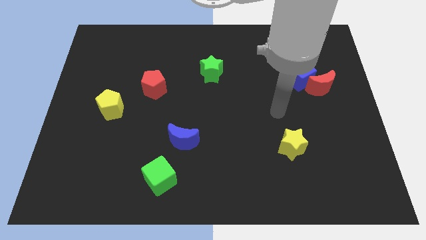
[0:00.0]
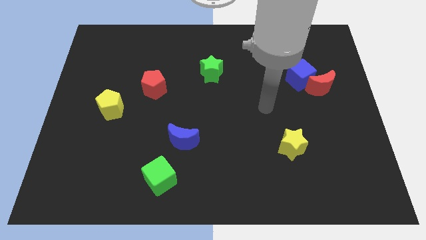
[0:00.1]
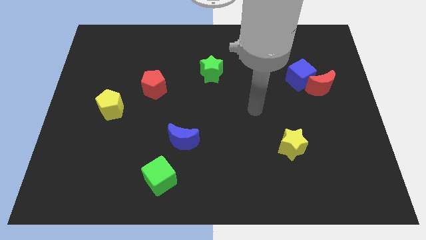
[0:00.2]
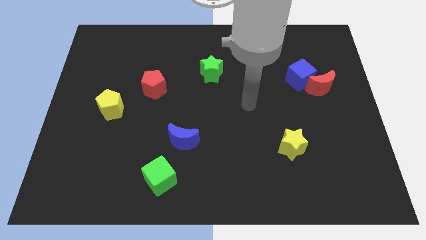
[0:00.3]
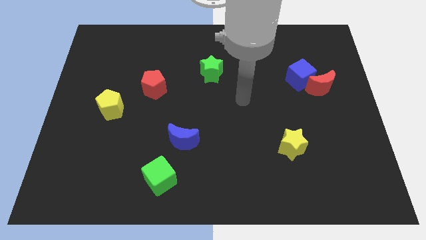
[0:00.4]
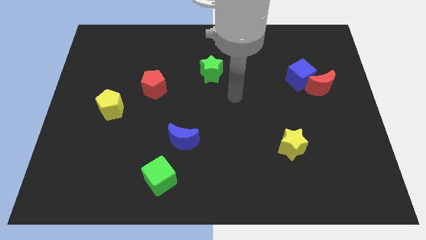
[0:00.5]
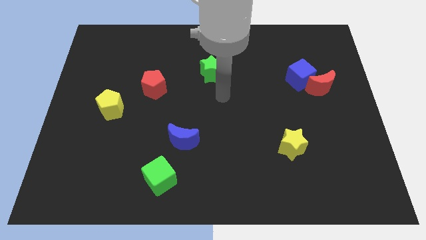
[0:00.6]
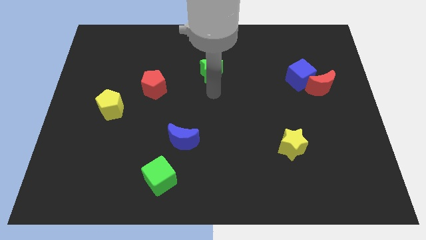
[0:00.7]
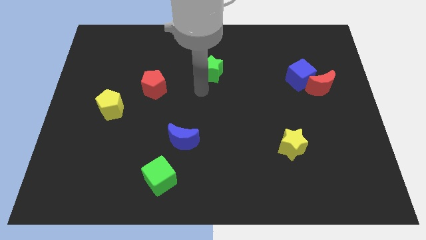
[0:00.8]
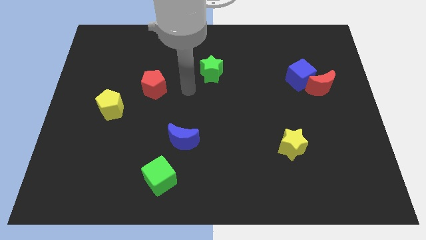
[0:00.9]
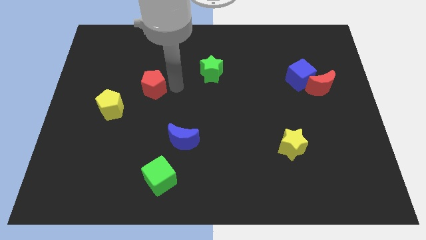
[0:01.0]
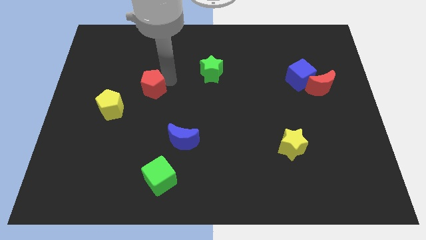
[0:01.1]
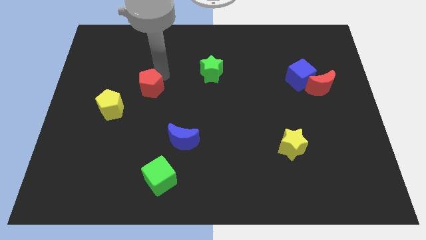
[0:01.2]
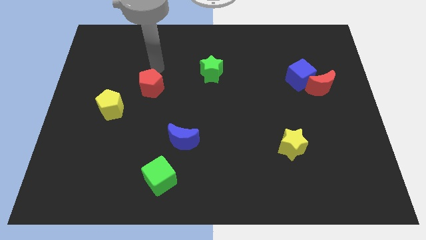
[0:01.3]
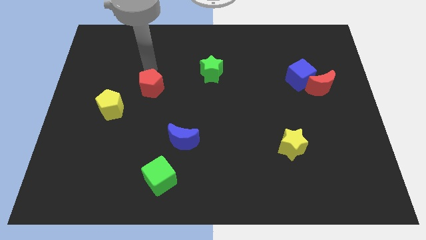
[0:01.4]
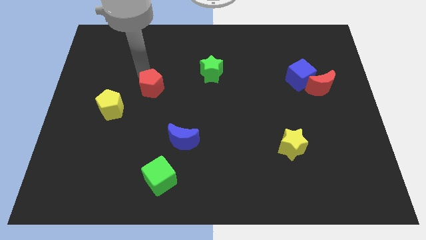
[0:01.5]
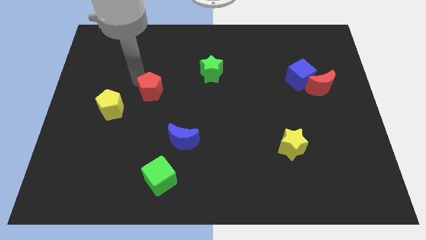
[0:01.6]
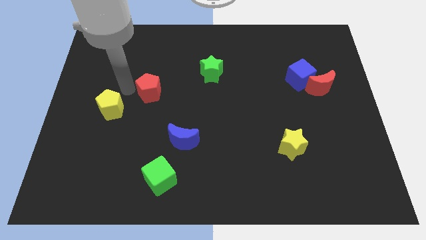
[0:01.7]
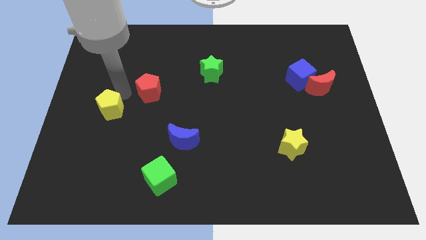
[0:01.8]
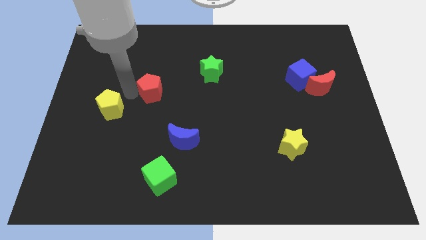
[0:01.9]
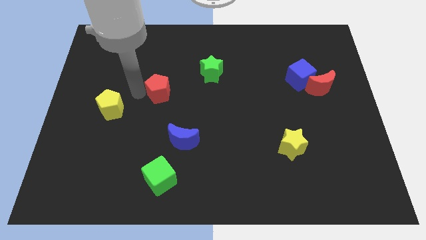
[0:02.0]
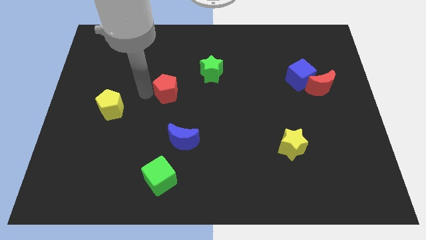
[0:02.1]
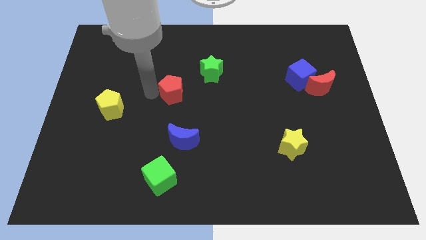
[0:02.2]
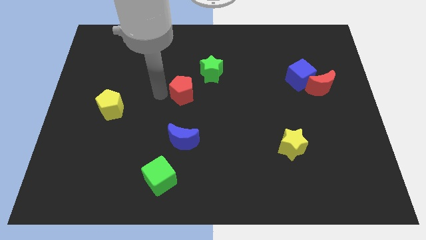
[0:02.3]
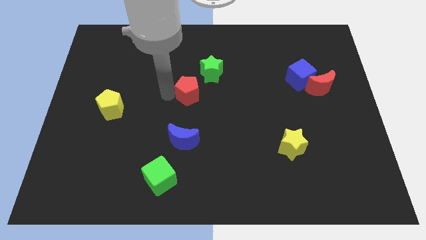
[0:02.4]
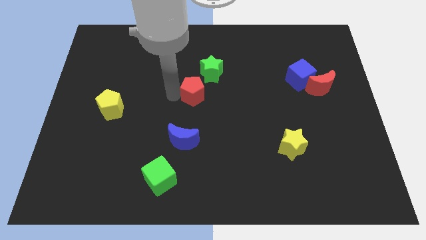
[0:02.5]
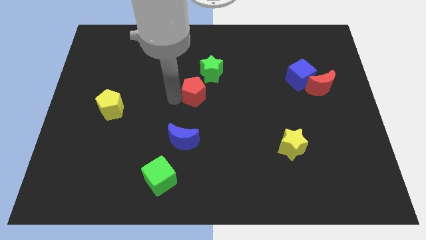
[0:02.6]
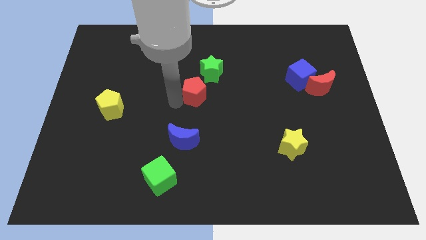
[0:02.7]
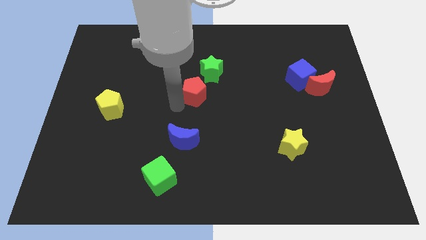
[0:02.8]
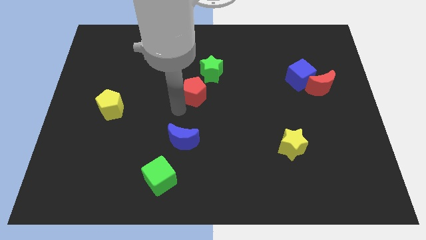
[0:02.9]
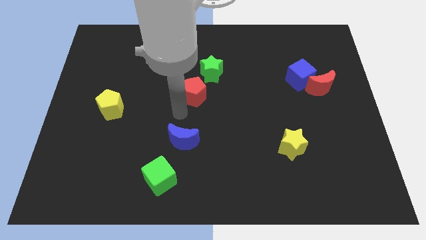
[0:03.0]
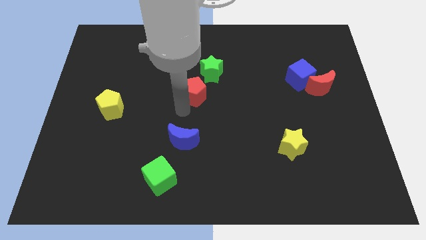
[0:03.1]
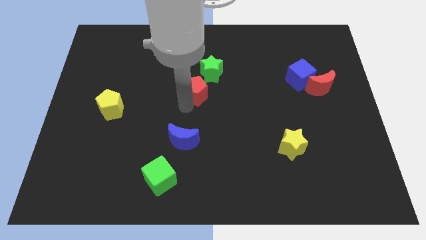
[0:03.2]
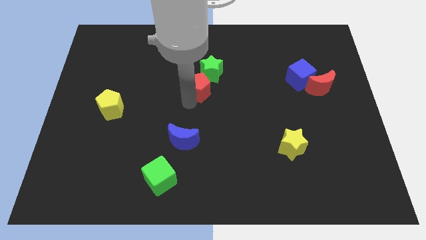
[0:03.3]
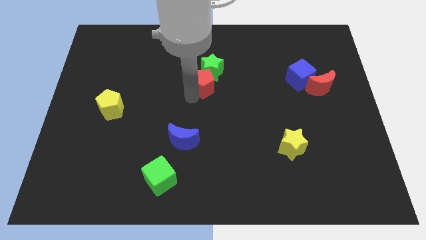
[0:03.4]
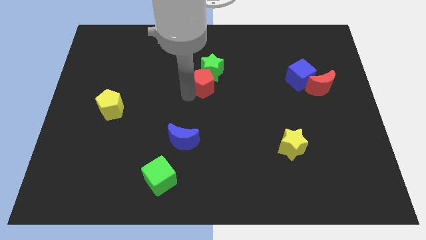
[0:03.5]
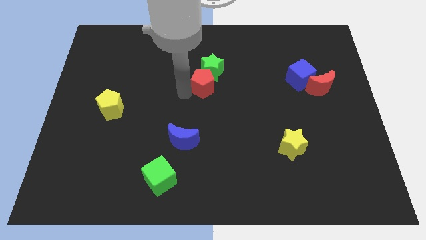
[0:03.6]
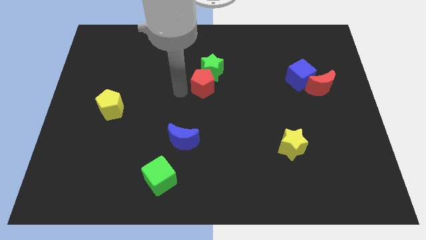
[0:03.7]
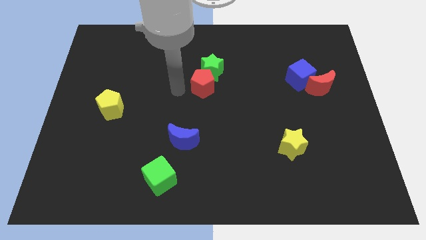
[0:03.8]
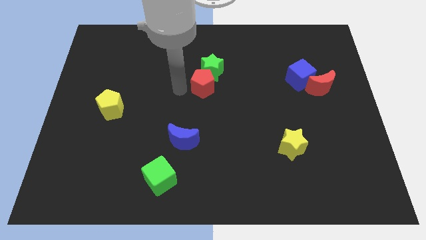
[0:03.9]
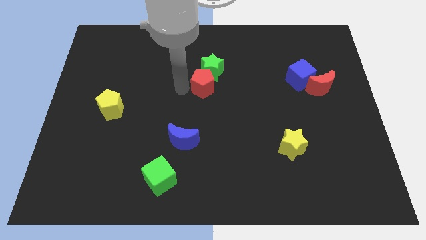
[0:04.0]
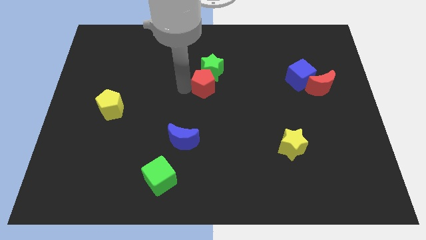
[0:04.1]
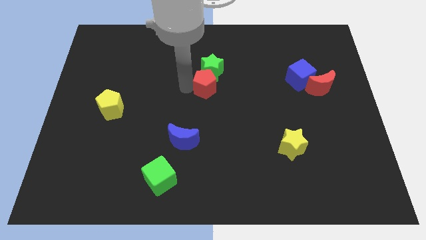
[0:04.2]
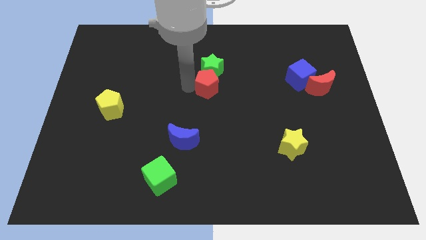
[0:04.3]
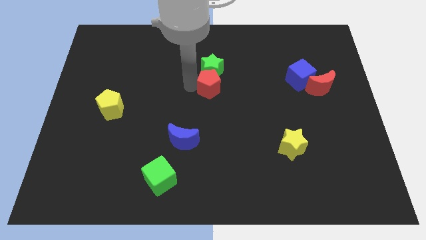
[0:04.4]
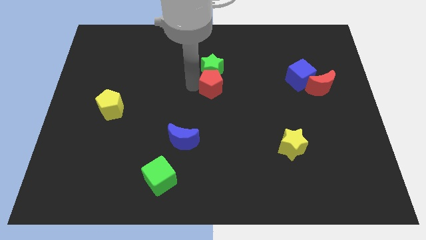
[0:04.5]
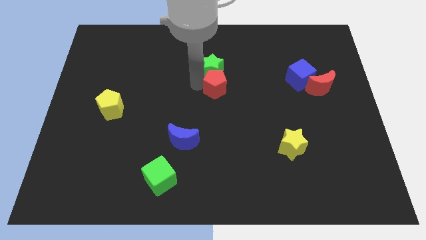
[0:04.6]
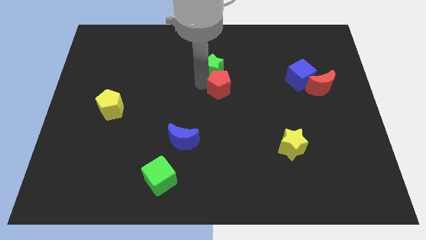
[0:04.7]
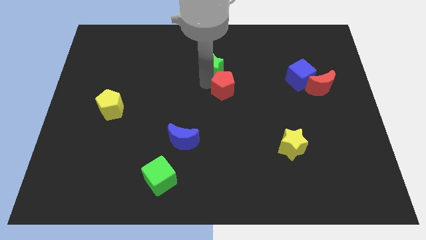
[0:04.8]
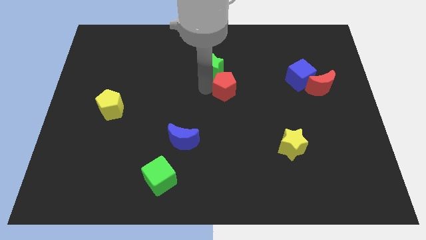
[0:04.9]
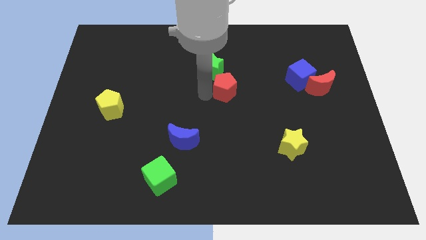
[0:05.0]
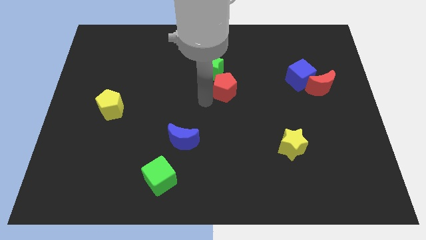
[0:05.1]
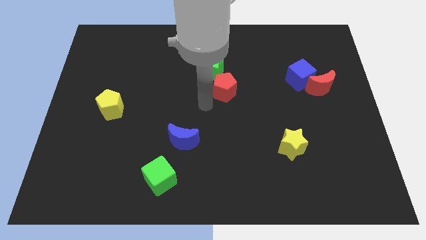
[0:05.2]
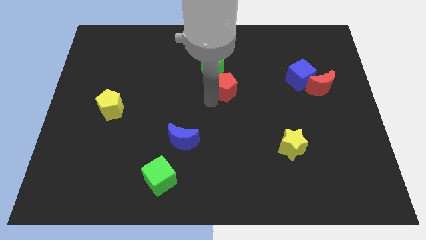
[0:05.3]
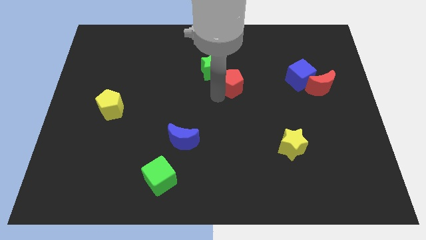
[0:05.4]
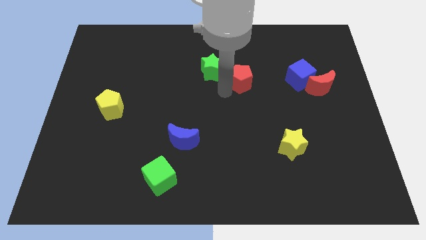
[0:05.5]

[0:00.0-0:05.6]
put the red pentagon to the right side of the green star

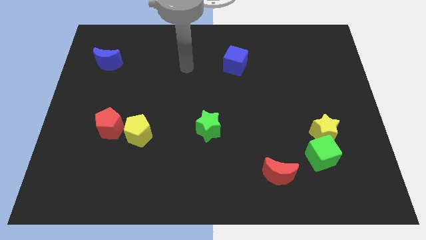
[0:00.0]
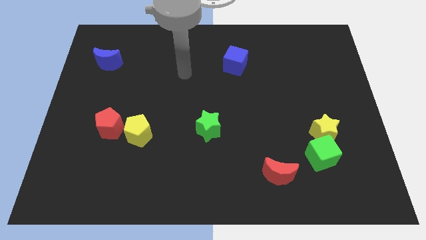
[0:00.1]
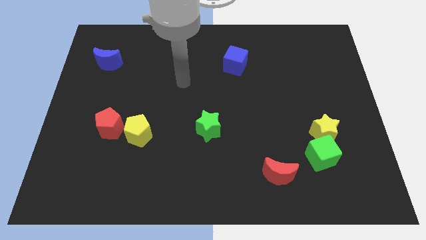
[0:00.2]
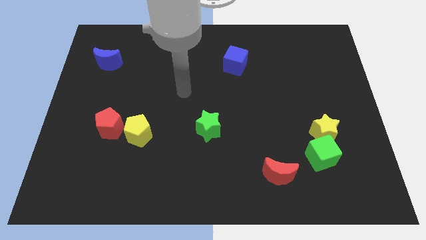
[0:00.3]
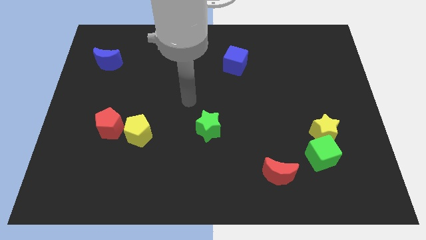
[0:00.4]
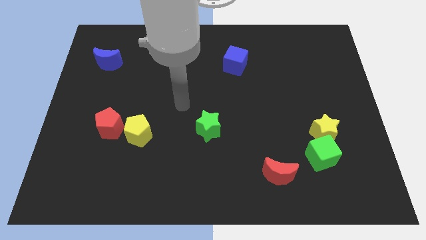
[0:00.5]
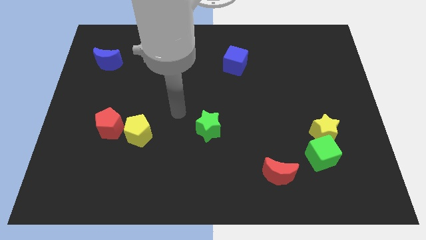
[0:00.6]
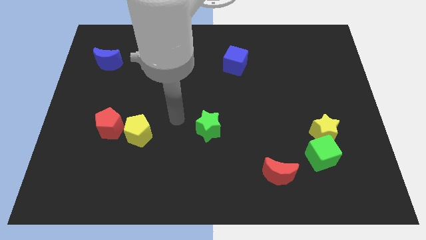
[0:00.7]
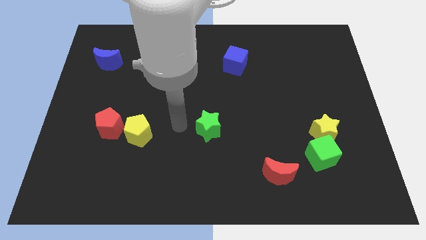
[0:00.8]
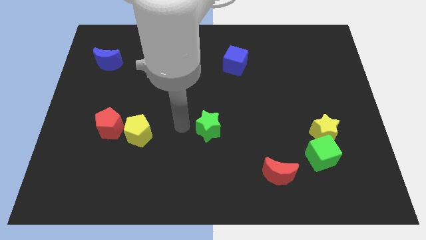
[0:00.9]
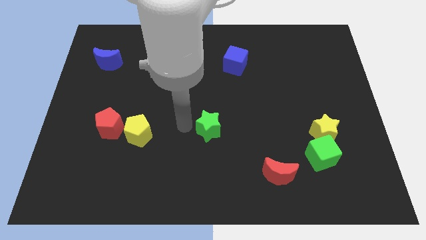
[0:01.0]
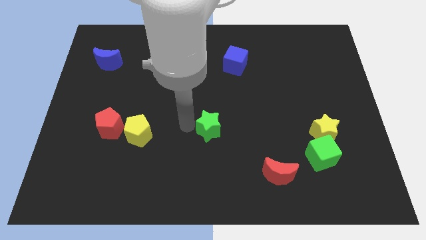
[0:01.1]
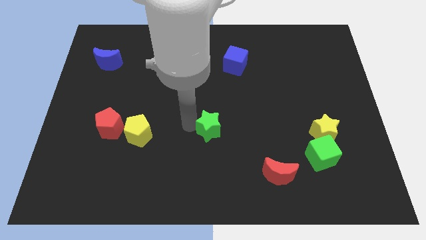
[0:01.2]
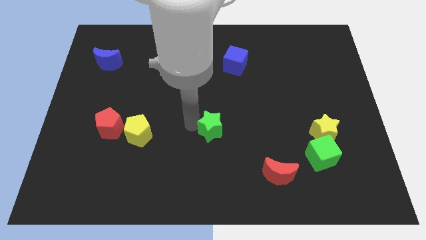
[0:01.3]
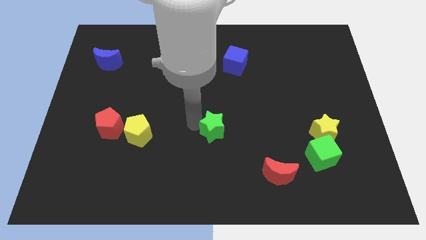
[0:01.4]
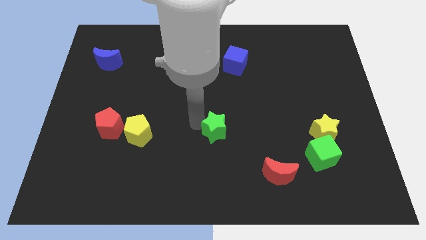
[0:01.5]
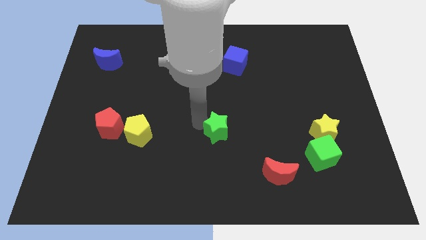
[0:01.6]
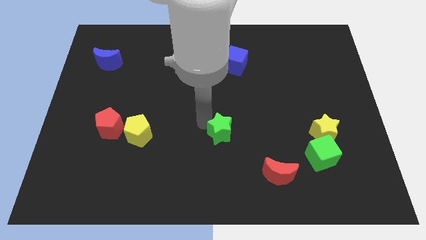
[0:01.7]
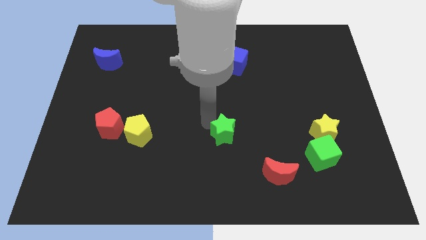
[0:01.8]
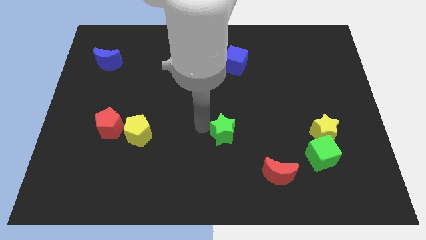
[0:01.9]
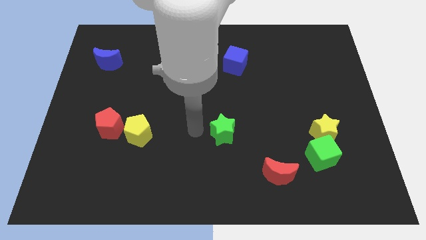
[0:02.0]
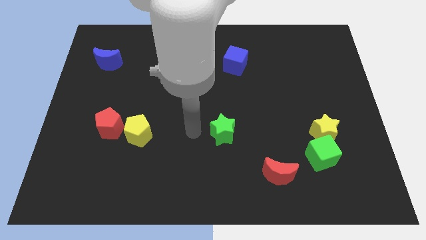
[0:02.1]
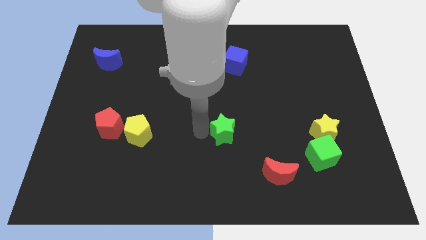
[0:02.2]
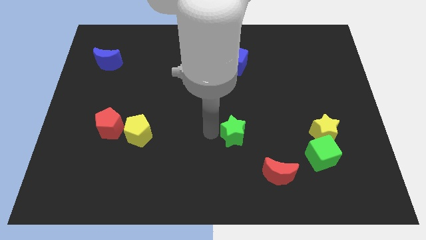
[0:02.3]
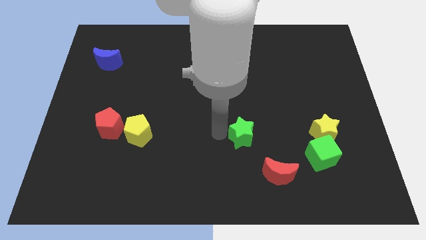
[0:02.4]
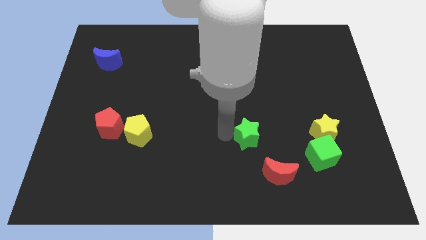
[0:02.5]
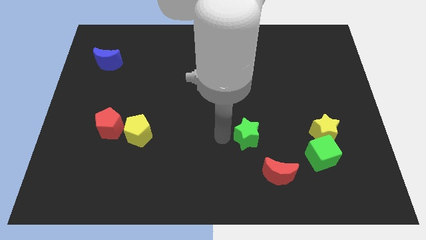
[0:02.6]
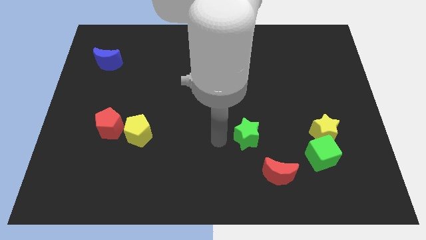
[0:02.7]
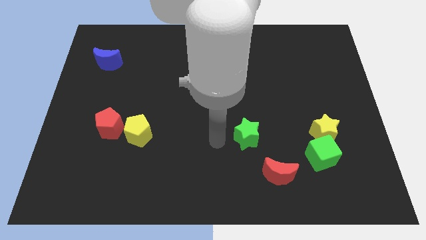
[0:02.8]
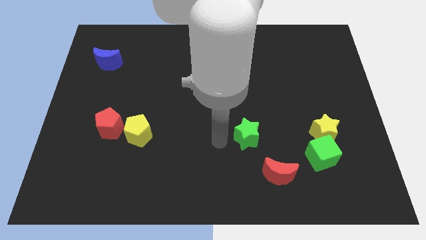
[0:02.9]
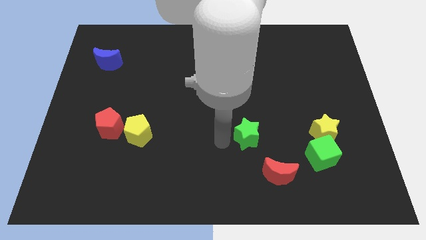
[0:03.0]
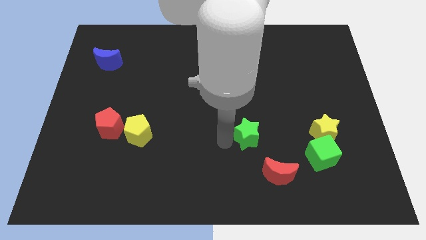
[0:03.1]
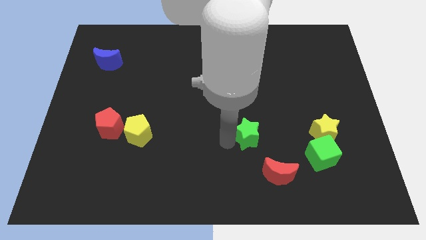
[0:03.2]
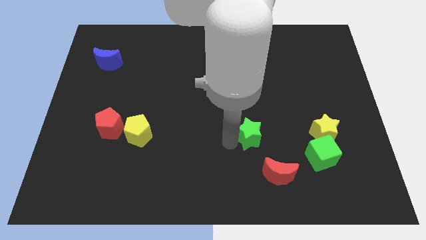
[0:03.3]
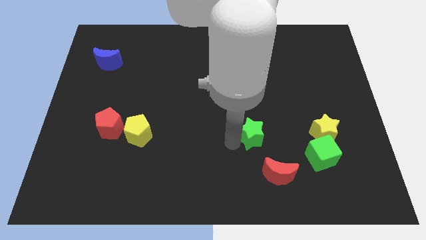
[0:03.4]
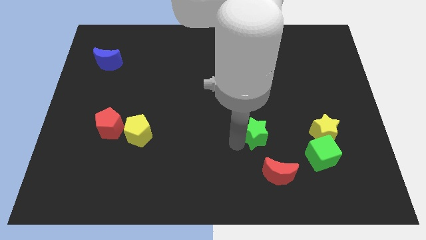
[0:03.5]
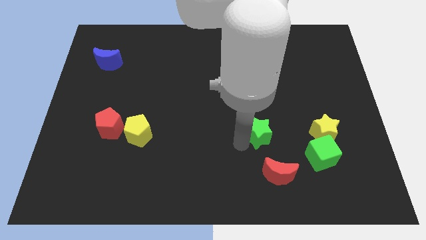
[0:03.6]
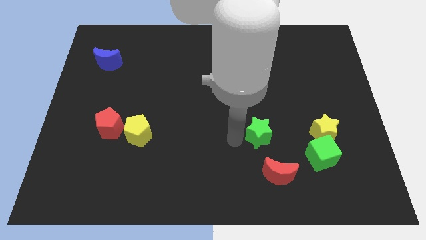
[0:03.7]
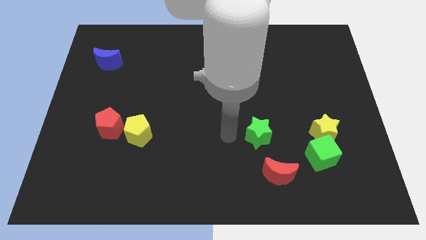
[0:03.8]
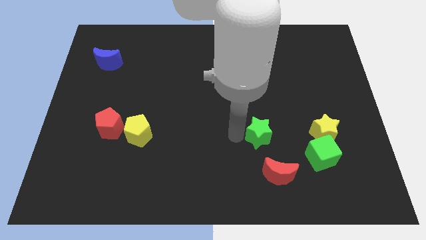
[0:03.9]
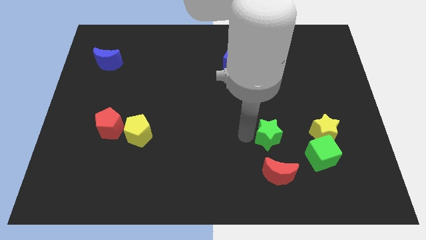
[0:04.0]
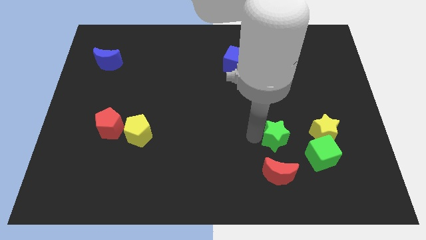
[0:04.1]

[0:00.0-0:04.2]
move the green star diagonally up and to the left of the green cube
